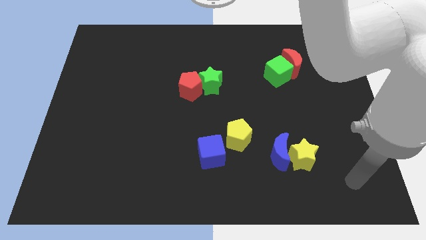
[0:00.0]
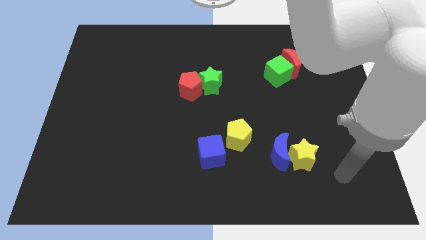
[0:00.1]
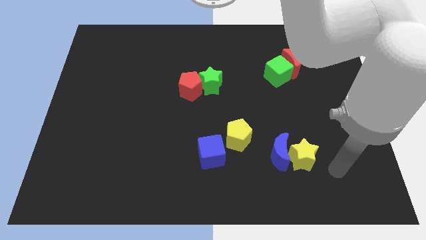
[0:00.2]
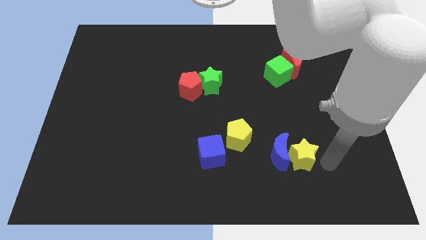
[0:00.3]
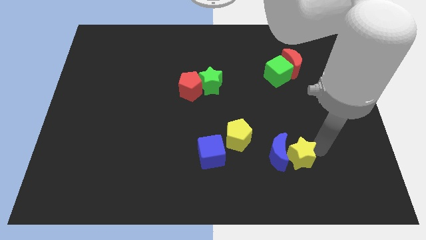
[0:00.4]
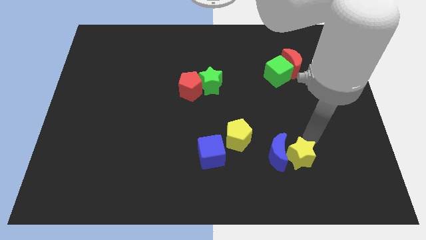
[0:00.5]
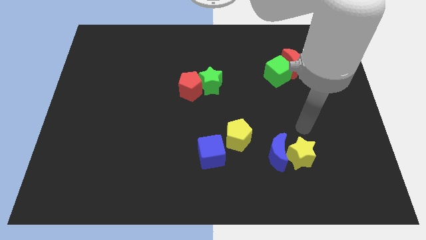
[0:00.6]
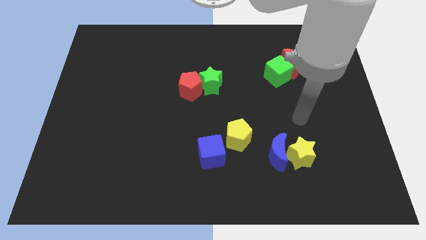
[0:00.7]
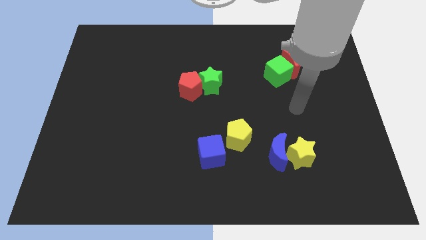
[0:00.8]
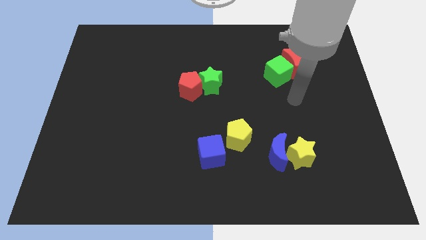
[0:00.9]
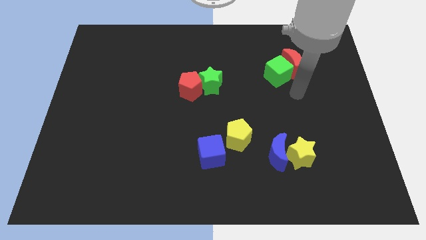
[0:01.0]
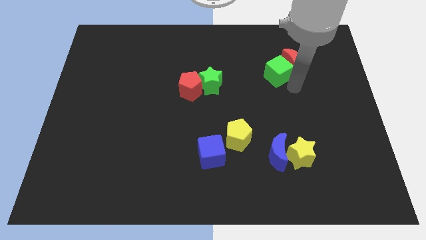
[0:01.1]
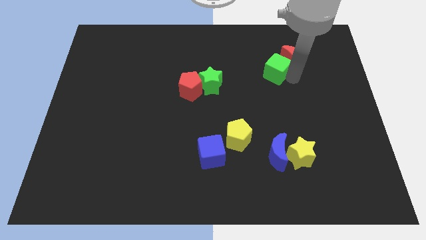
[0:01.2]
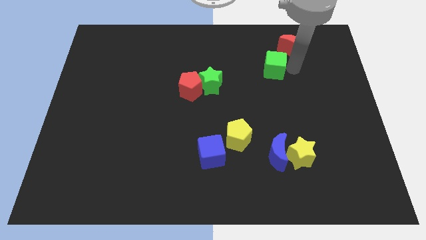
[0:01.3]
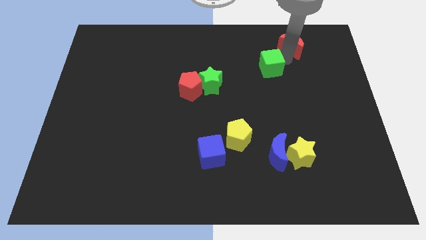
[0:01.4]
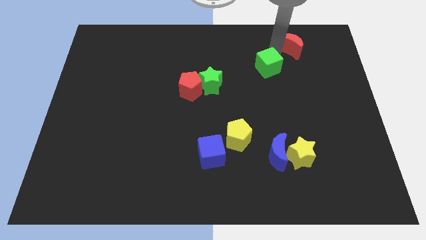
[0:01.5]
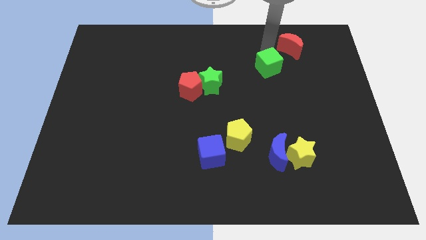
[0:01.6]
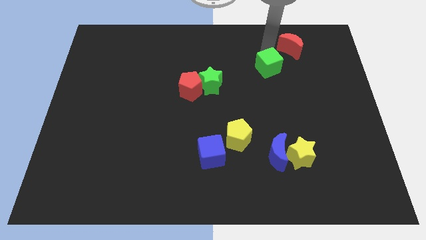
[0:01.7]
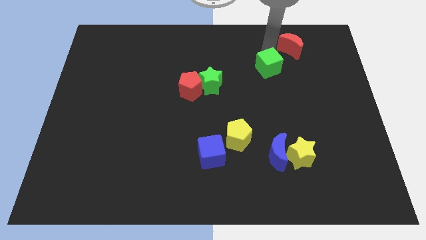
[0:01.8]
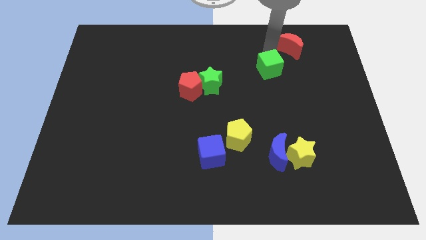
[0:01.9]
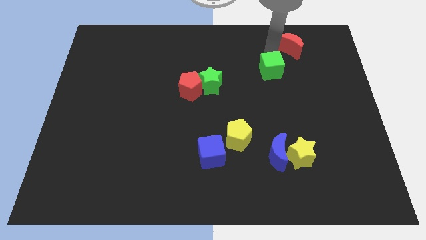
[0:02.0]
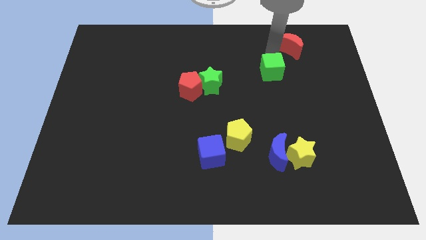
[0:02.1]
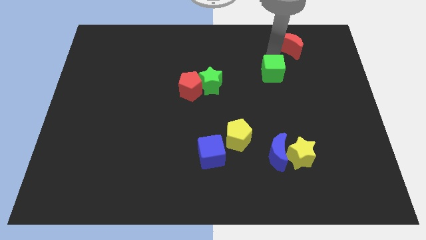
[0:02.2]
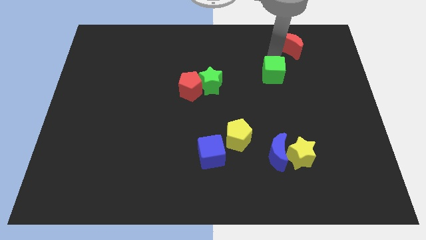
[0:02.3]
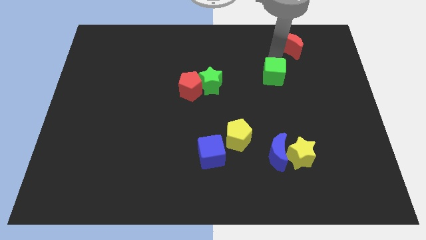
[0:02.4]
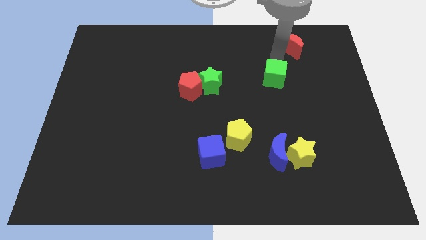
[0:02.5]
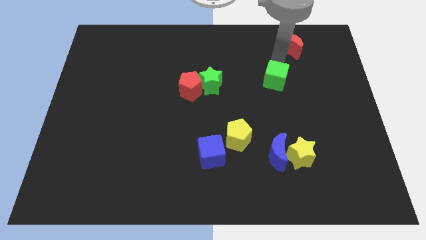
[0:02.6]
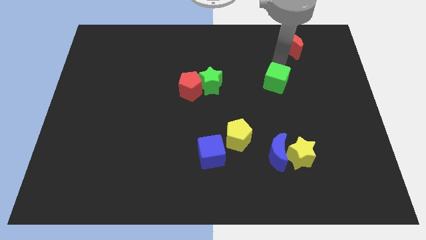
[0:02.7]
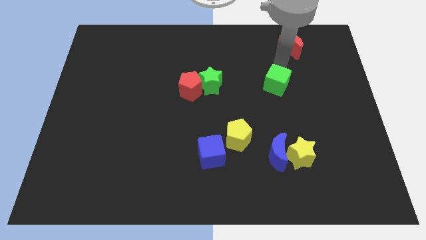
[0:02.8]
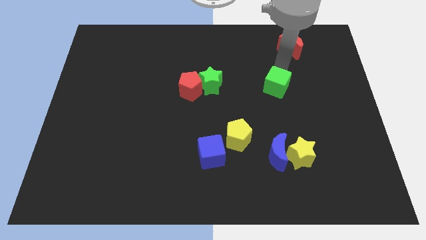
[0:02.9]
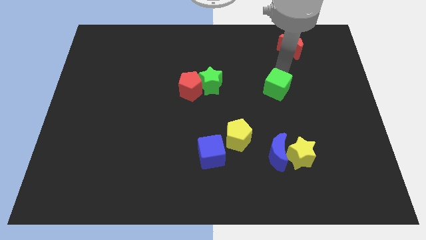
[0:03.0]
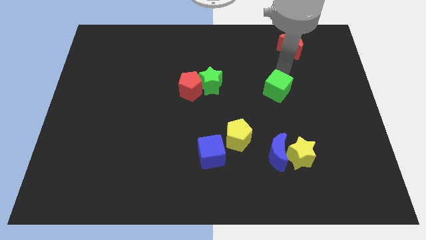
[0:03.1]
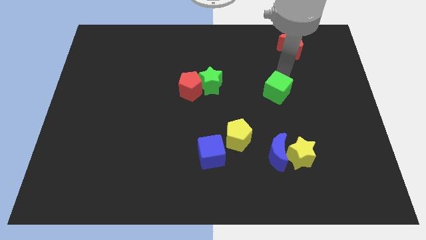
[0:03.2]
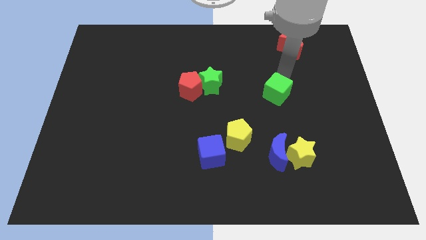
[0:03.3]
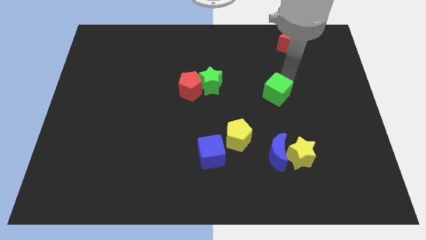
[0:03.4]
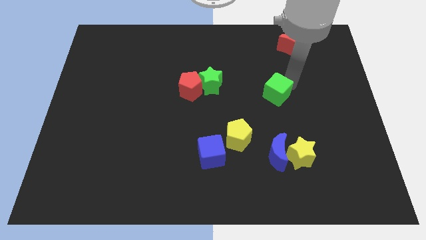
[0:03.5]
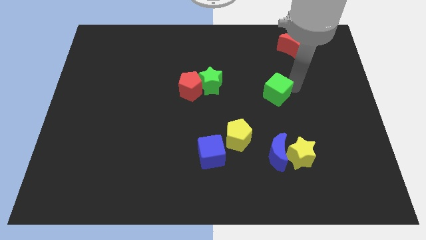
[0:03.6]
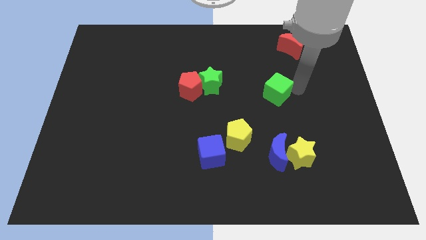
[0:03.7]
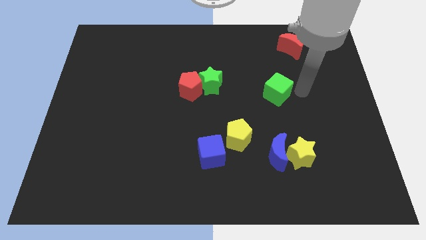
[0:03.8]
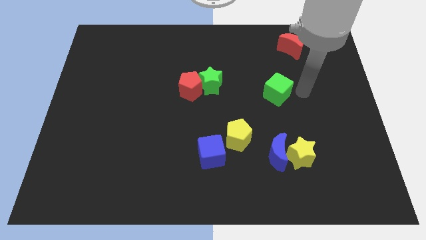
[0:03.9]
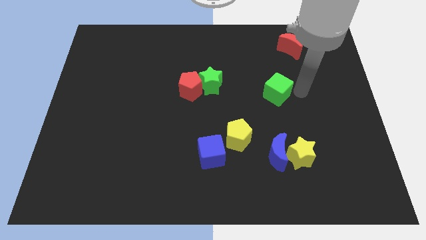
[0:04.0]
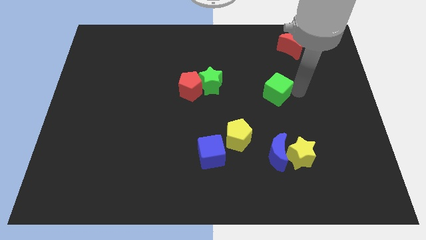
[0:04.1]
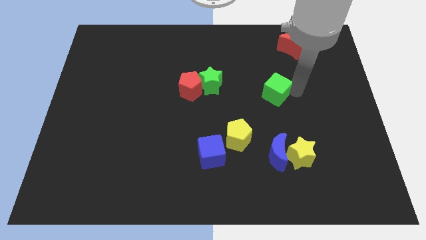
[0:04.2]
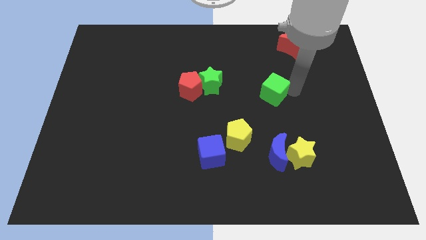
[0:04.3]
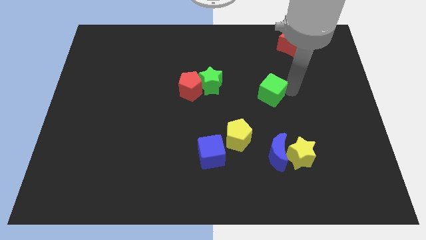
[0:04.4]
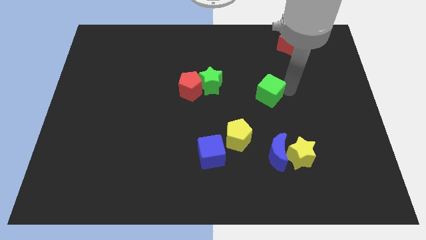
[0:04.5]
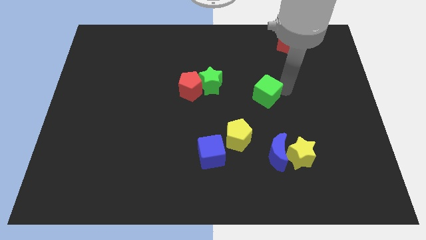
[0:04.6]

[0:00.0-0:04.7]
slightly move the green cube down and to the left diagonally

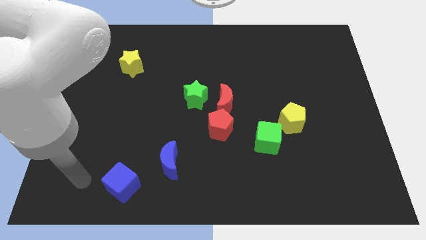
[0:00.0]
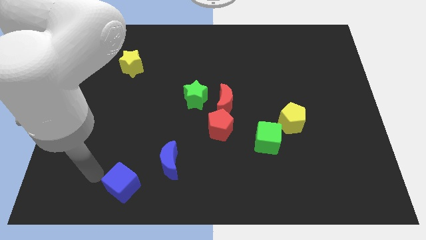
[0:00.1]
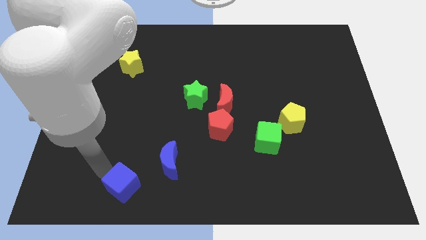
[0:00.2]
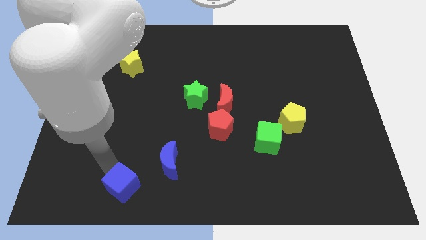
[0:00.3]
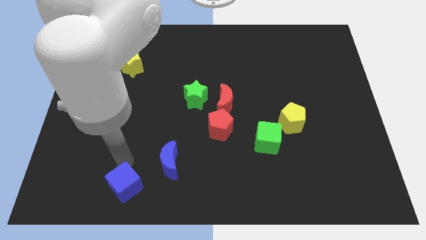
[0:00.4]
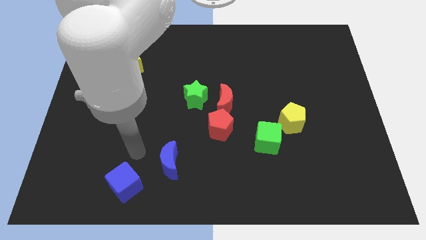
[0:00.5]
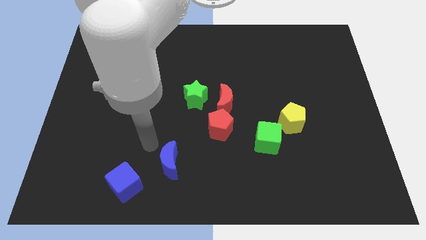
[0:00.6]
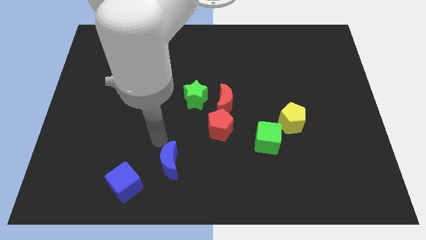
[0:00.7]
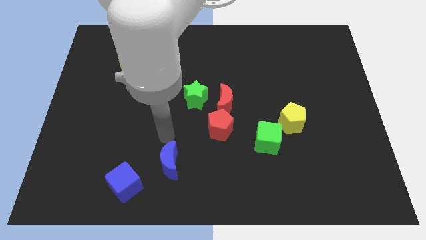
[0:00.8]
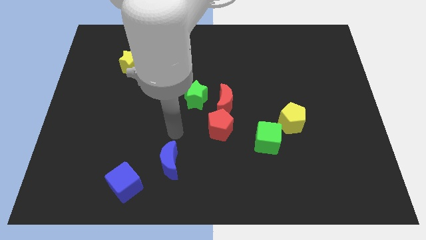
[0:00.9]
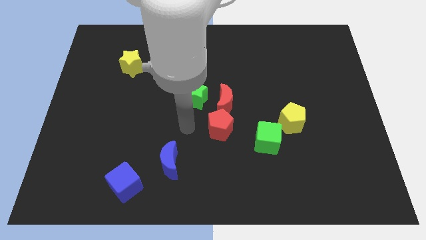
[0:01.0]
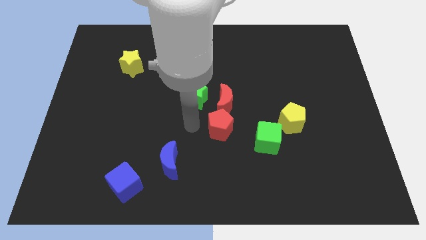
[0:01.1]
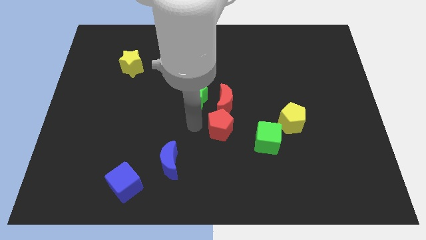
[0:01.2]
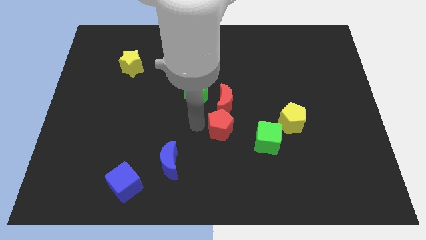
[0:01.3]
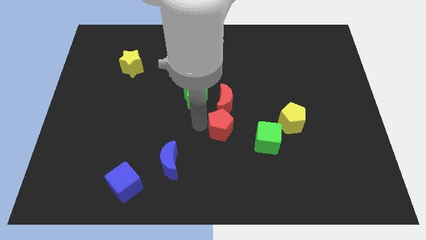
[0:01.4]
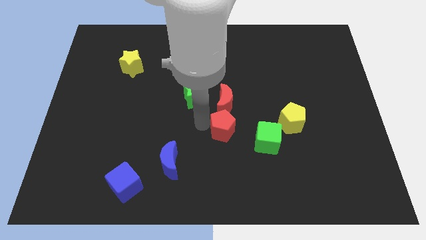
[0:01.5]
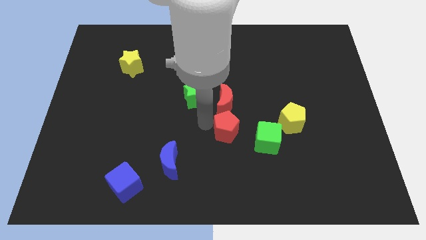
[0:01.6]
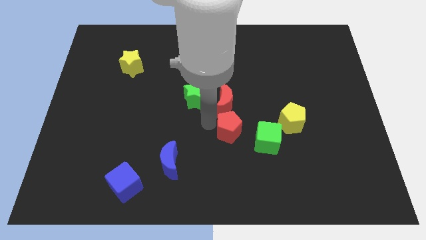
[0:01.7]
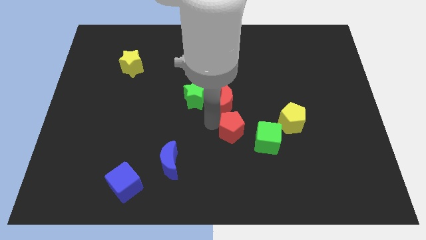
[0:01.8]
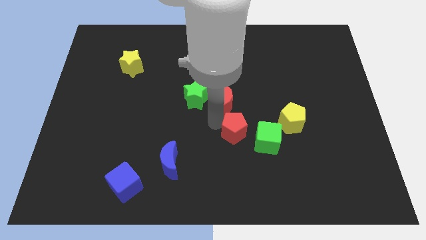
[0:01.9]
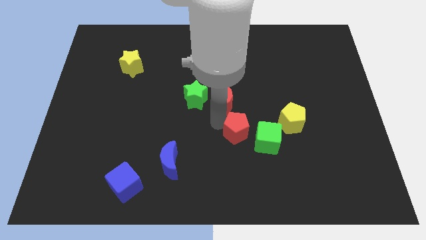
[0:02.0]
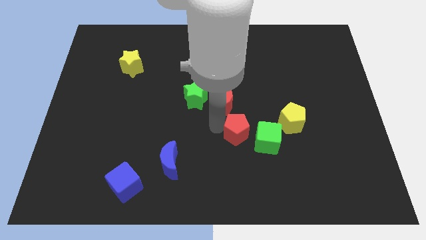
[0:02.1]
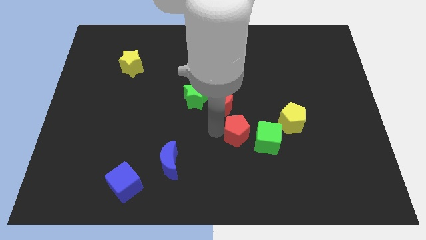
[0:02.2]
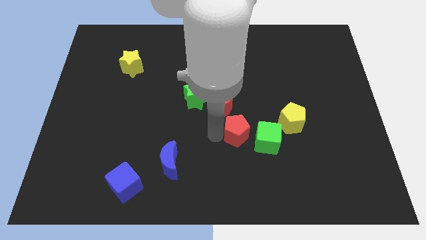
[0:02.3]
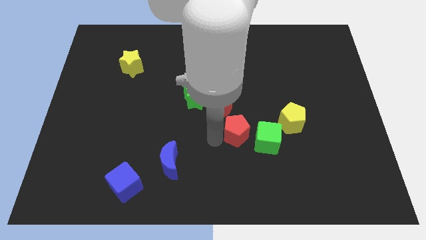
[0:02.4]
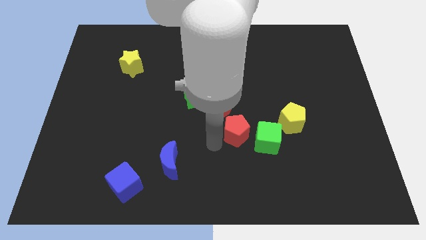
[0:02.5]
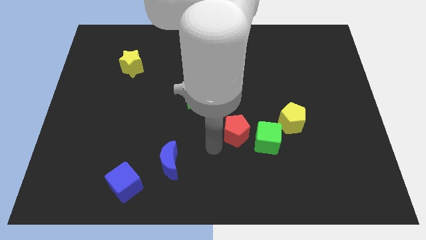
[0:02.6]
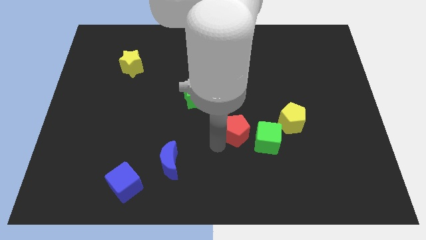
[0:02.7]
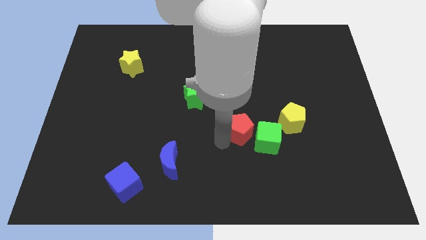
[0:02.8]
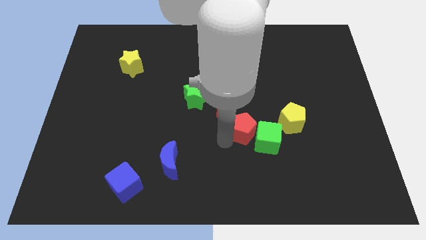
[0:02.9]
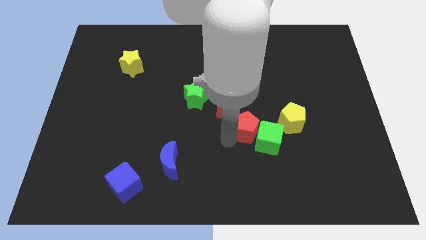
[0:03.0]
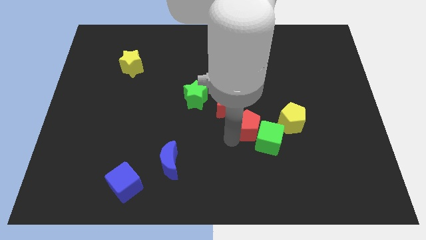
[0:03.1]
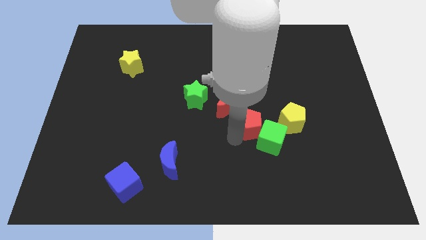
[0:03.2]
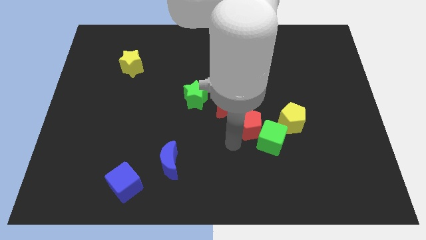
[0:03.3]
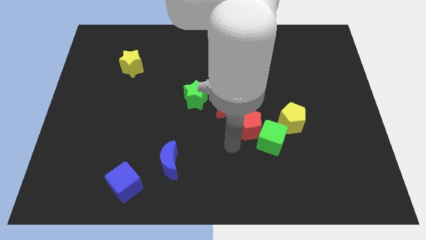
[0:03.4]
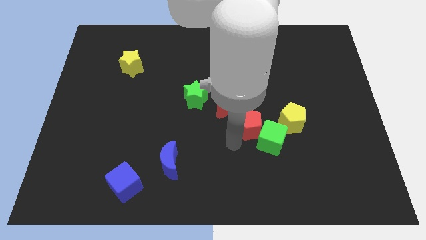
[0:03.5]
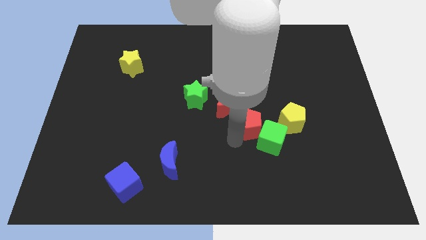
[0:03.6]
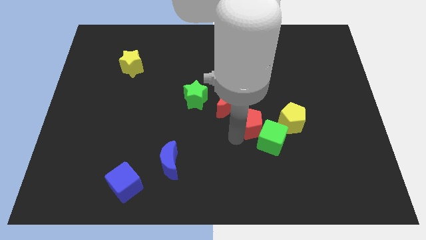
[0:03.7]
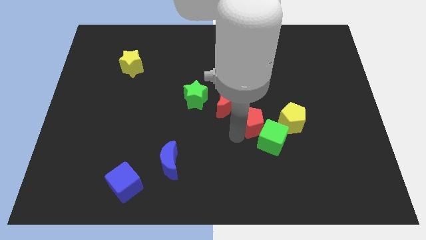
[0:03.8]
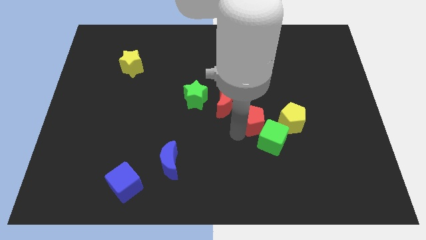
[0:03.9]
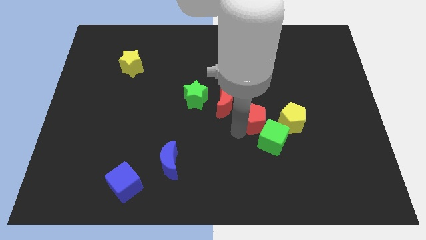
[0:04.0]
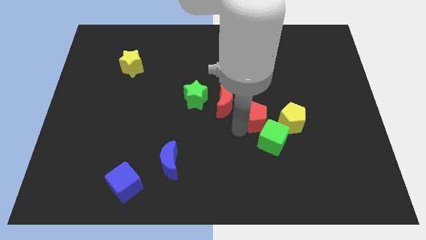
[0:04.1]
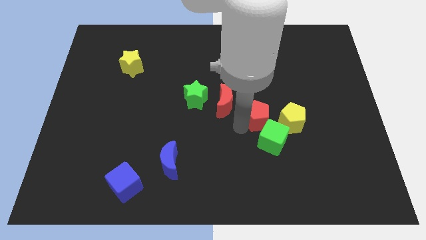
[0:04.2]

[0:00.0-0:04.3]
move the red pentagon up and right slightly
